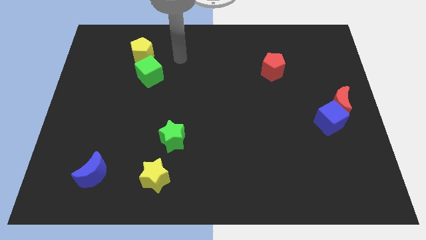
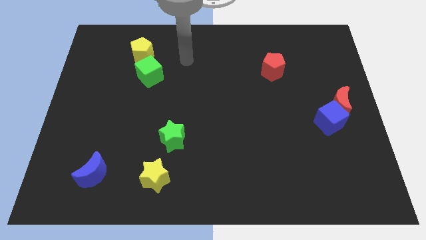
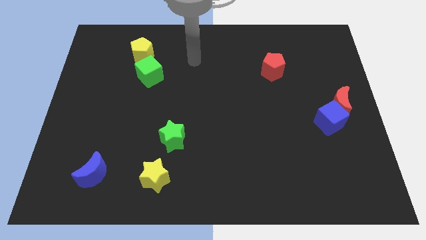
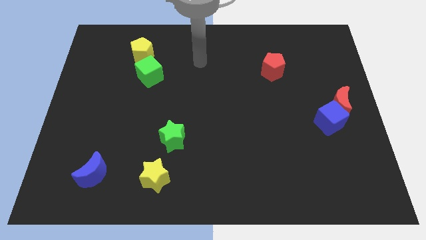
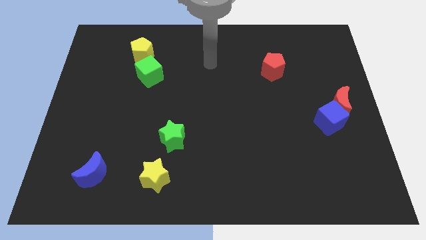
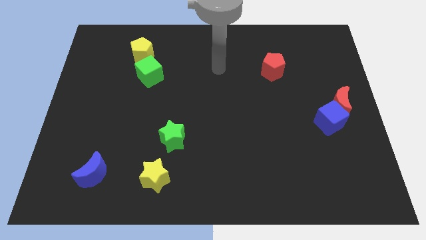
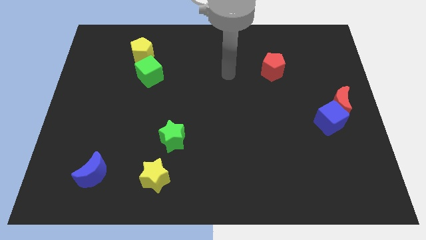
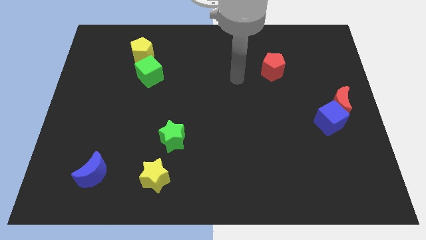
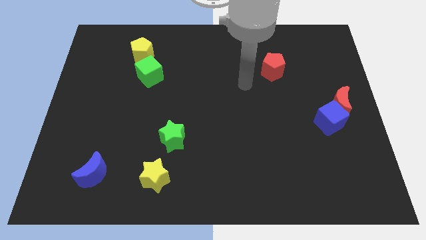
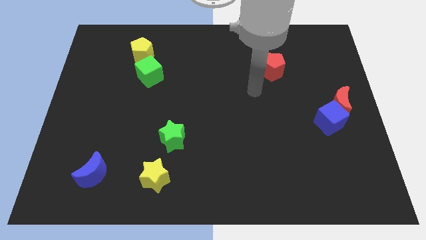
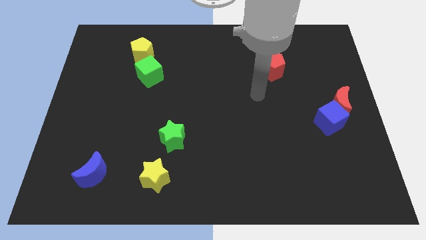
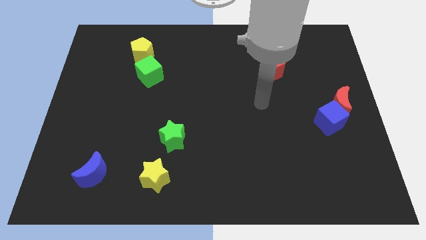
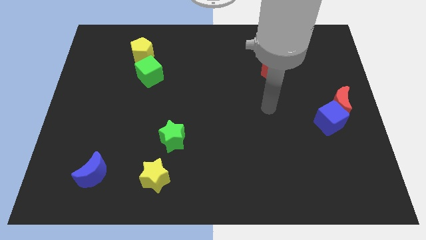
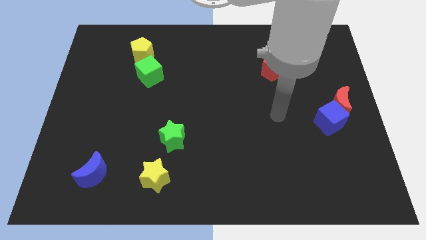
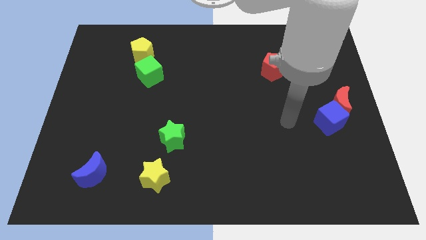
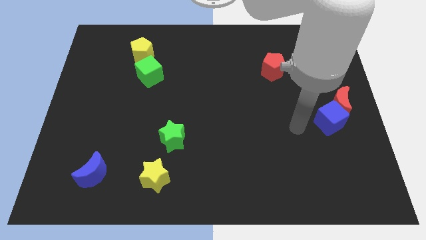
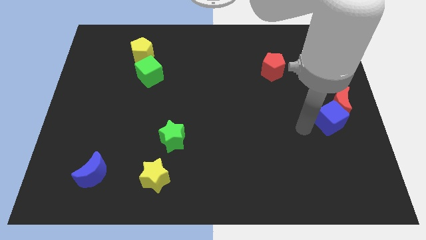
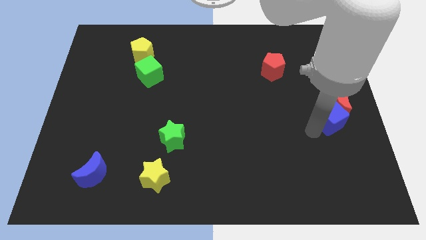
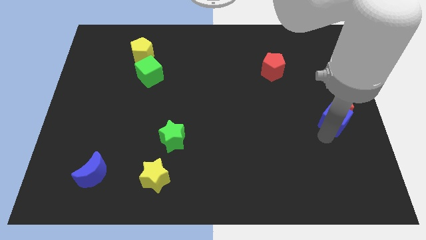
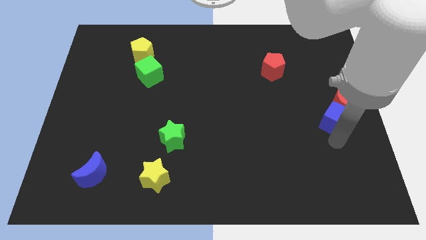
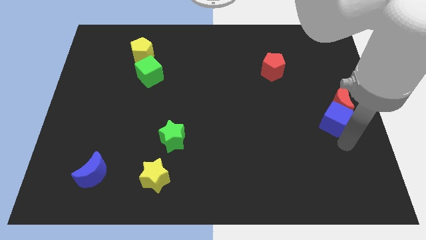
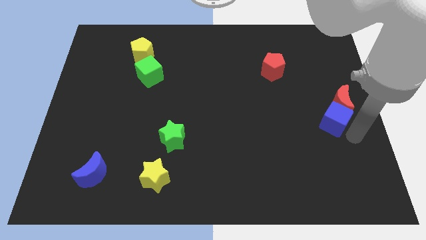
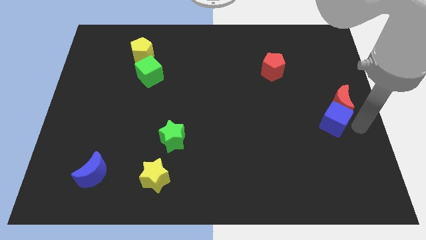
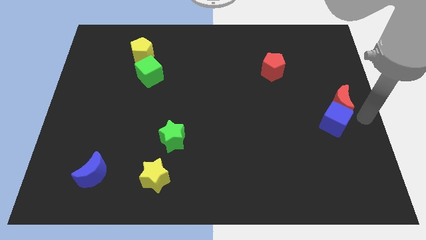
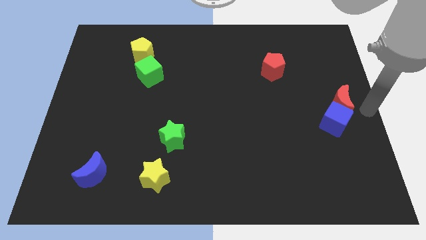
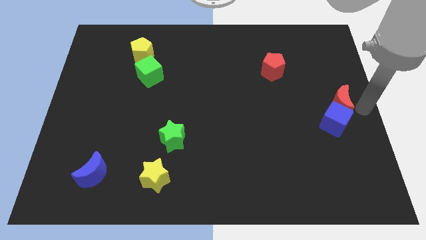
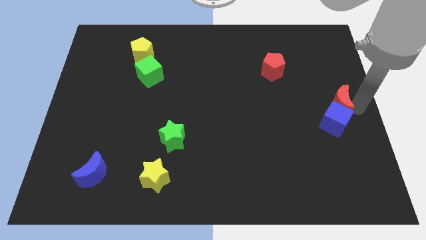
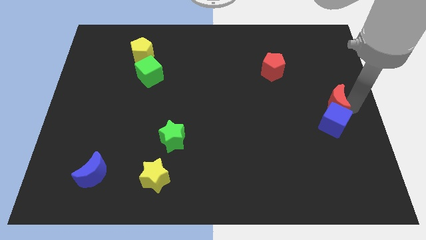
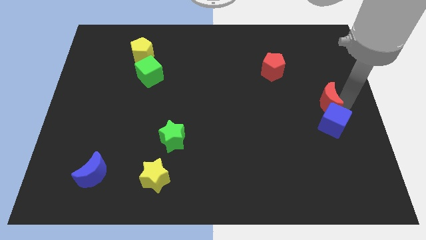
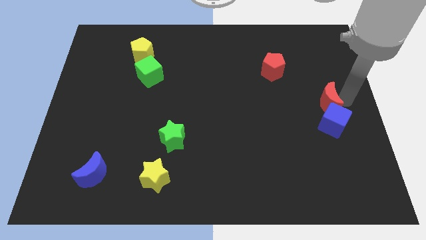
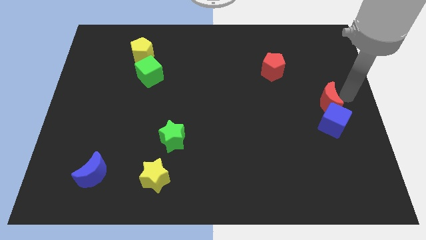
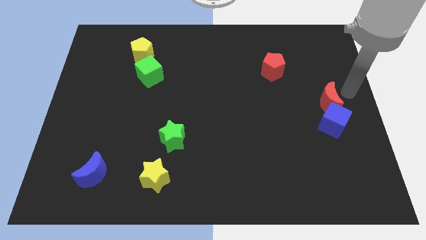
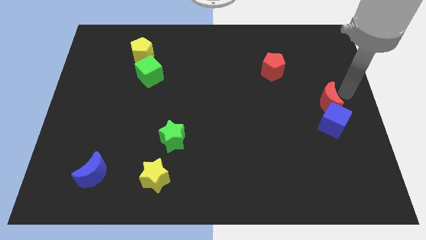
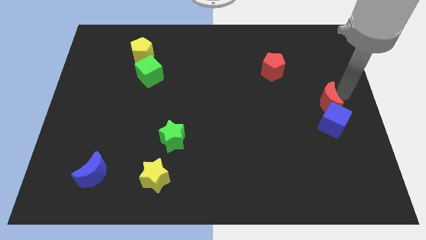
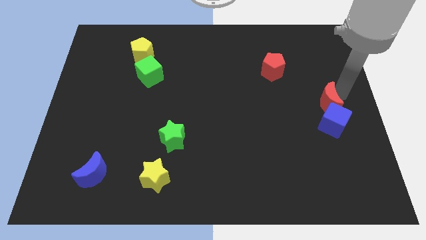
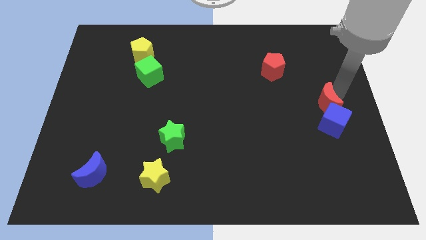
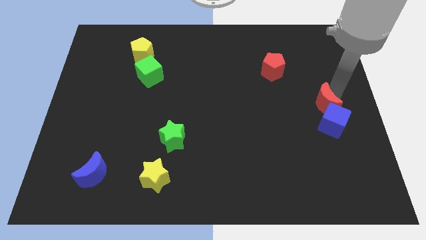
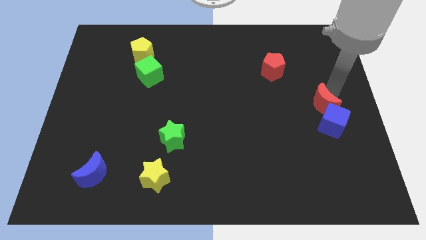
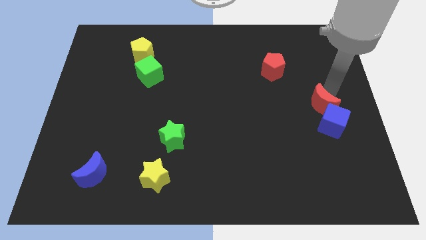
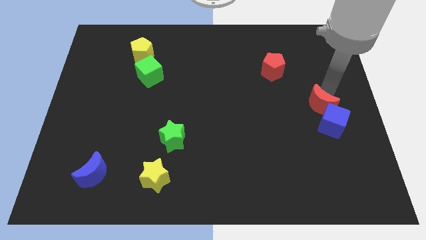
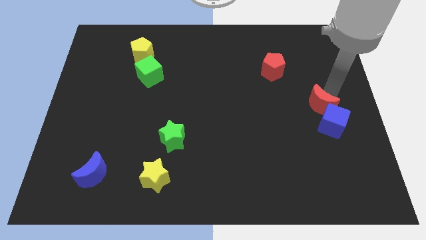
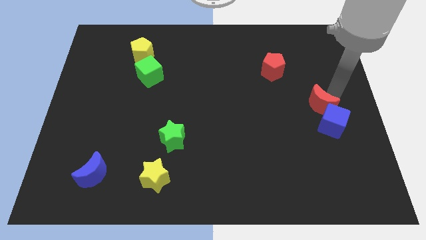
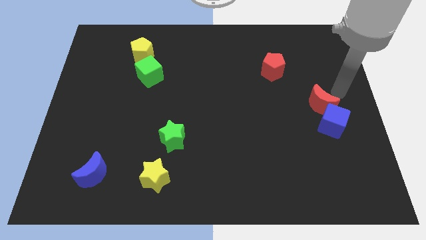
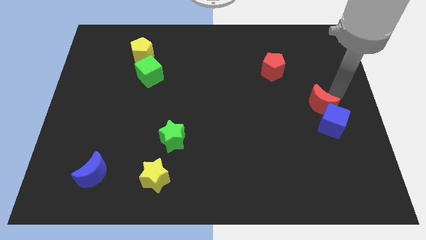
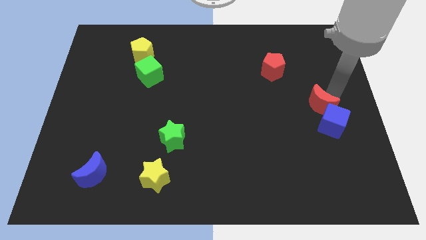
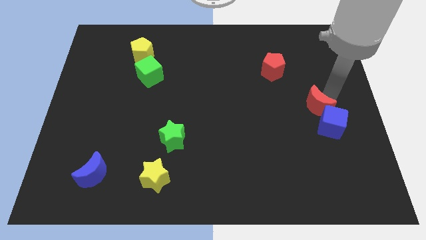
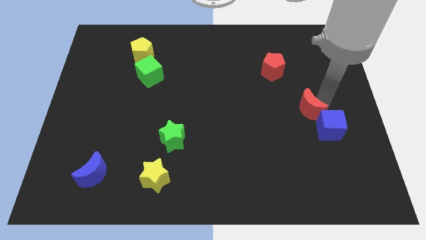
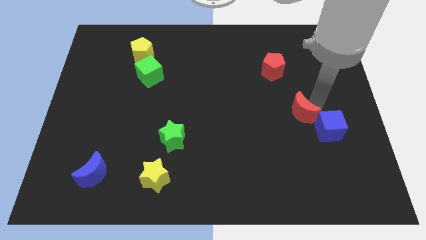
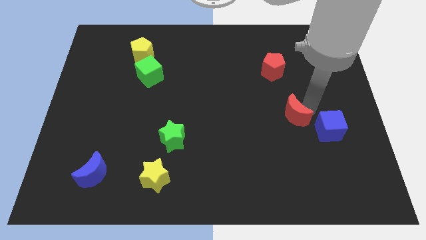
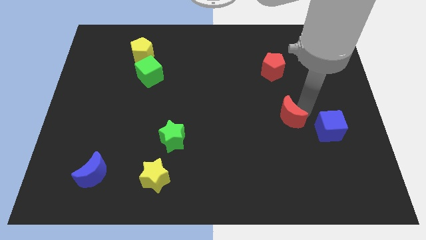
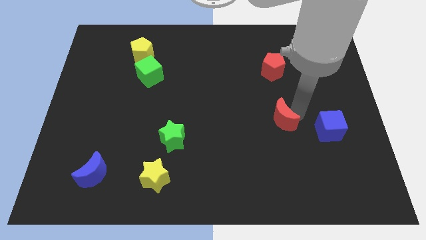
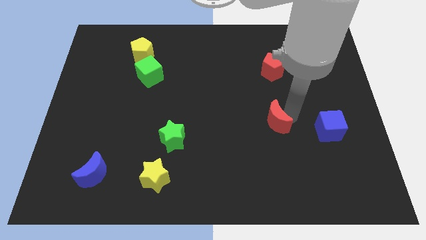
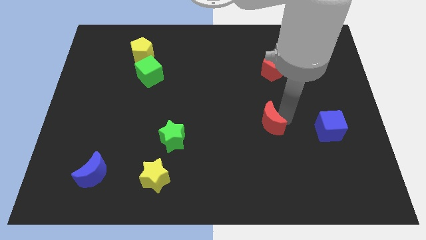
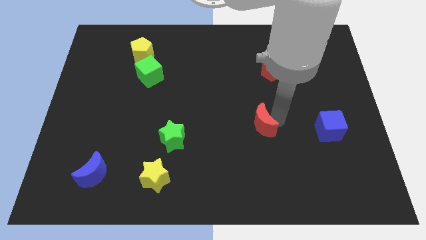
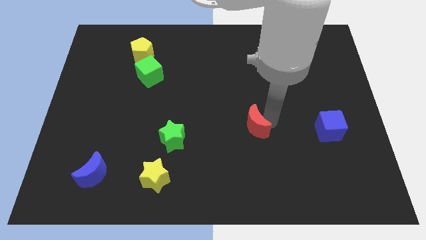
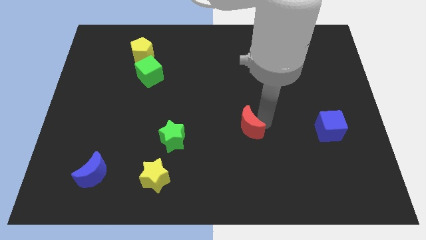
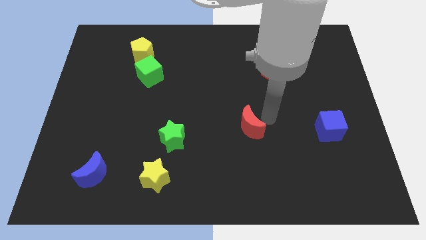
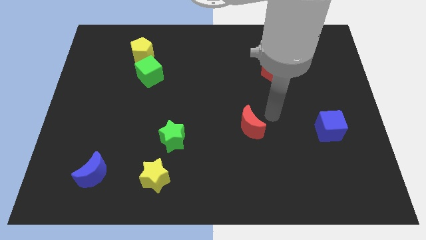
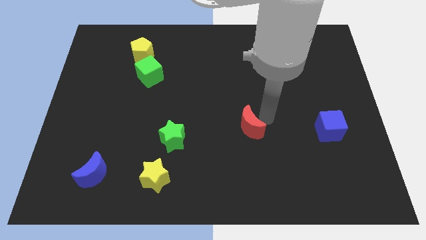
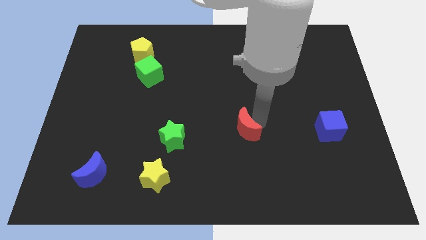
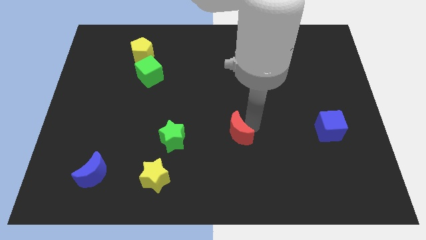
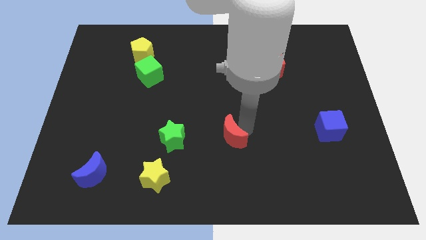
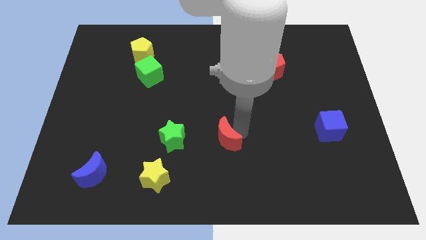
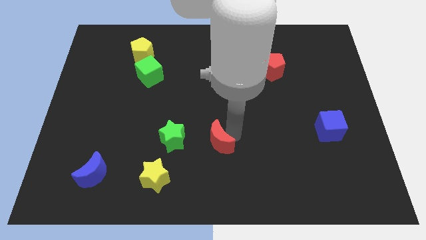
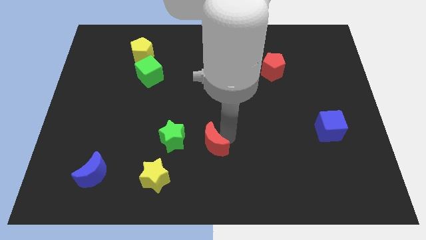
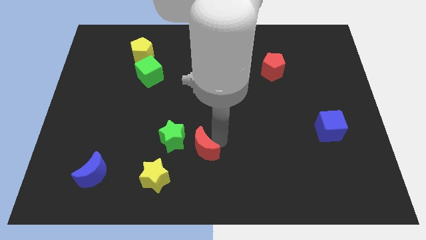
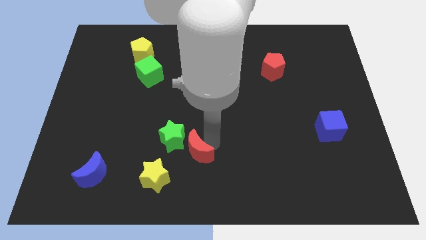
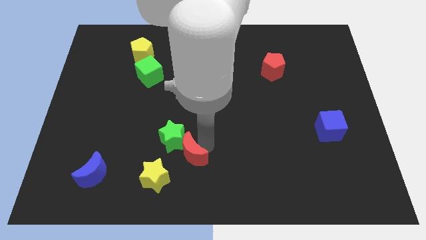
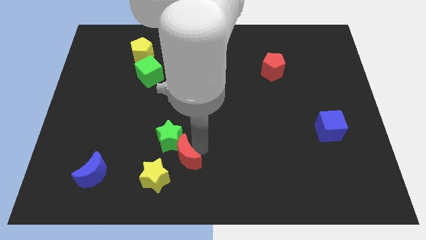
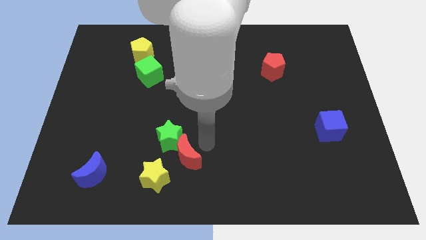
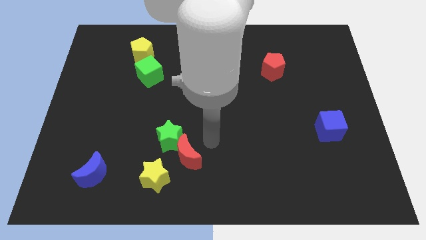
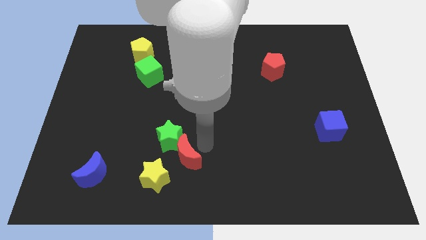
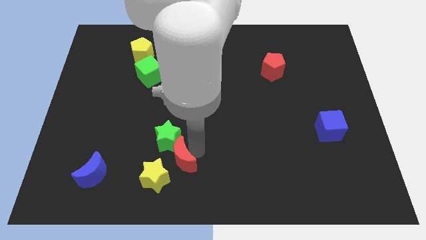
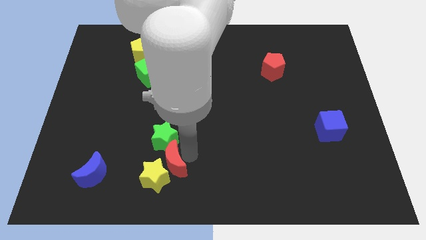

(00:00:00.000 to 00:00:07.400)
put the red moon to the yellow star
